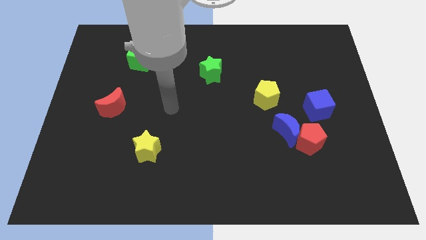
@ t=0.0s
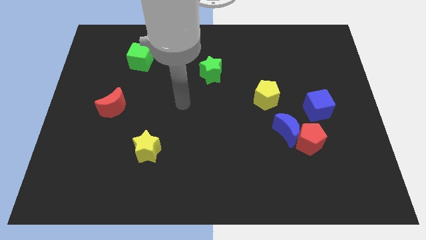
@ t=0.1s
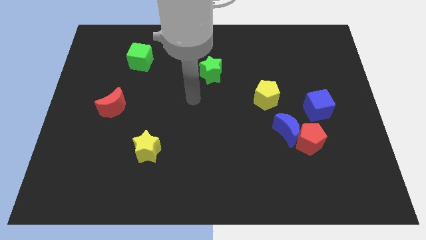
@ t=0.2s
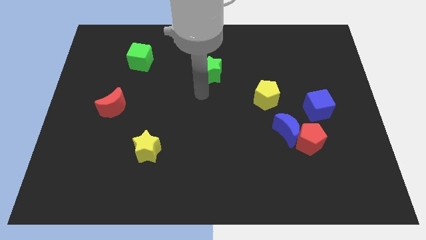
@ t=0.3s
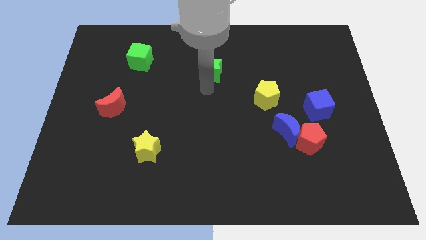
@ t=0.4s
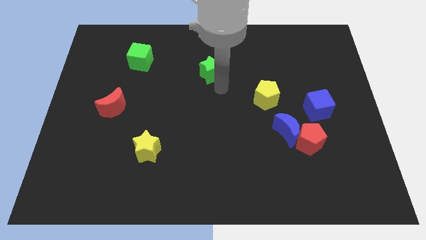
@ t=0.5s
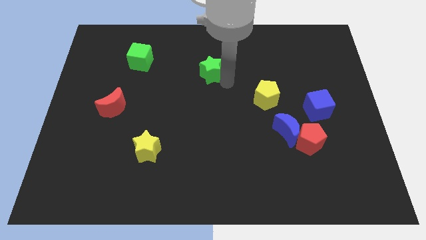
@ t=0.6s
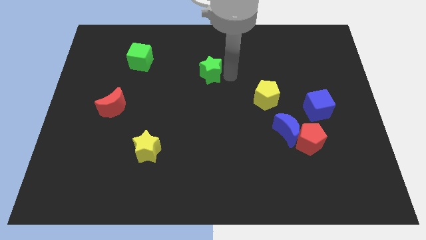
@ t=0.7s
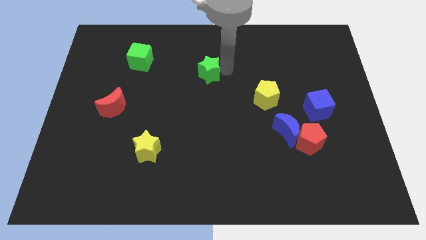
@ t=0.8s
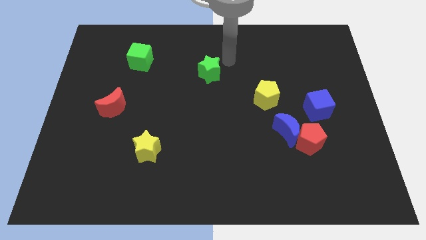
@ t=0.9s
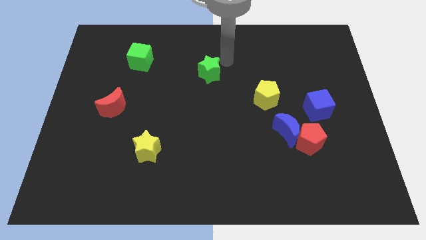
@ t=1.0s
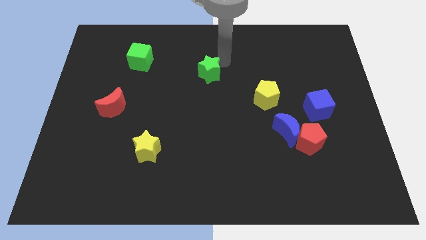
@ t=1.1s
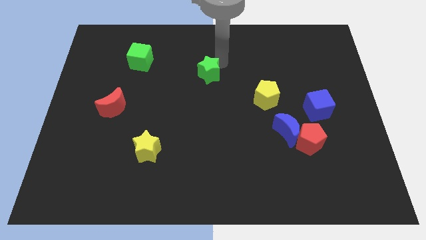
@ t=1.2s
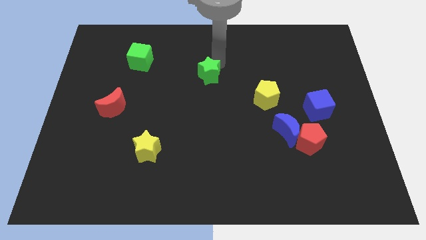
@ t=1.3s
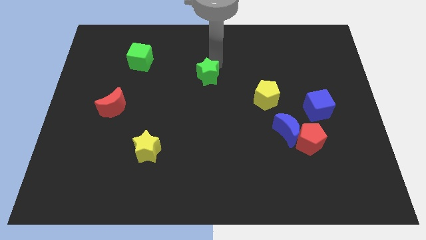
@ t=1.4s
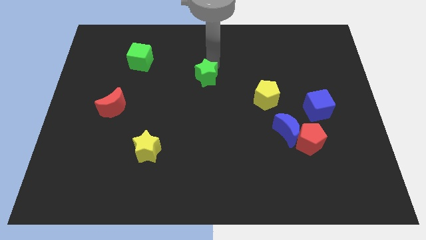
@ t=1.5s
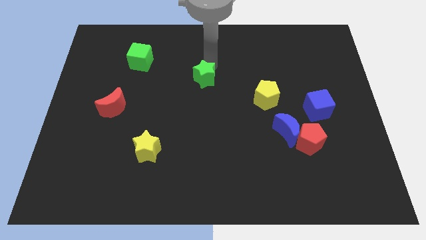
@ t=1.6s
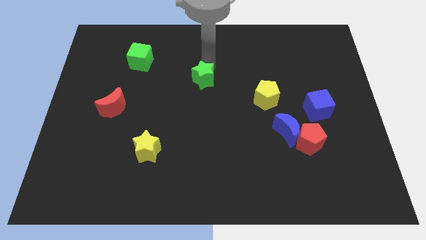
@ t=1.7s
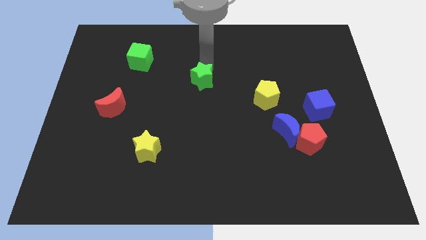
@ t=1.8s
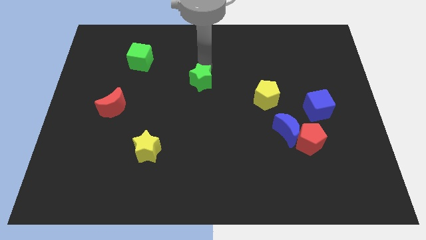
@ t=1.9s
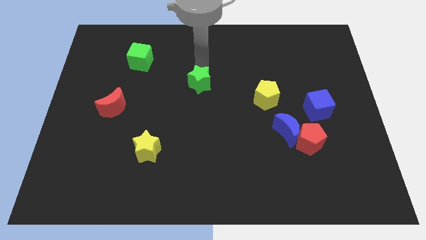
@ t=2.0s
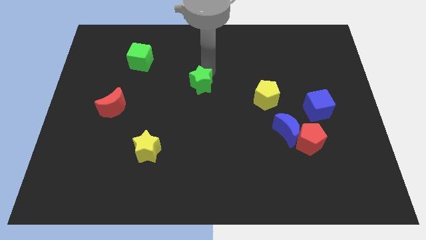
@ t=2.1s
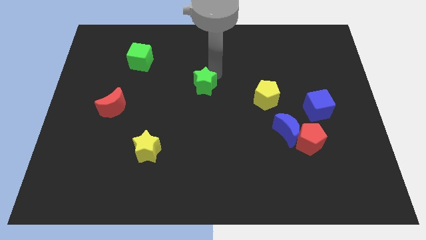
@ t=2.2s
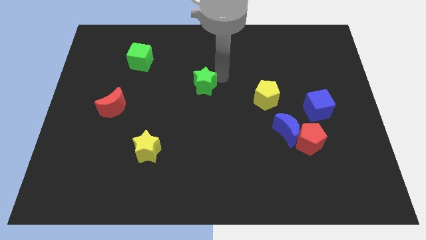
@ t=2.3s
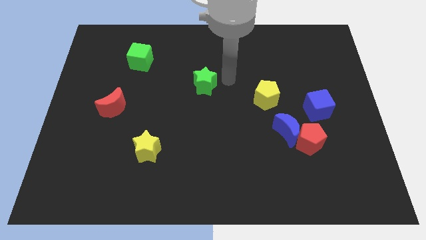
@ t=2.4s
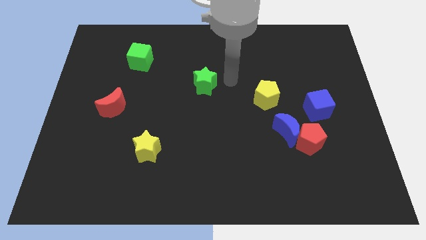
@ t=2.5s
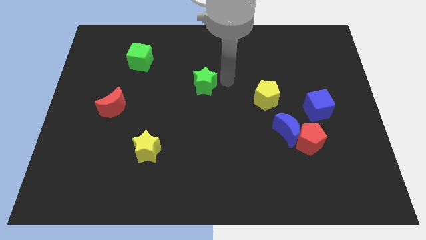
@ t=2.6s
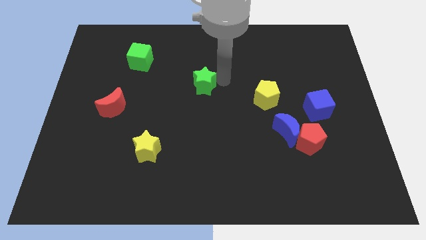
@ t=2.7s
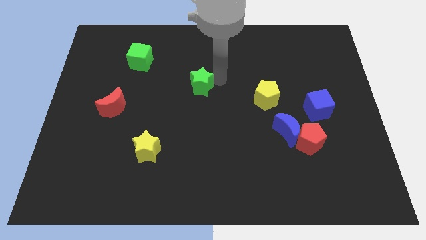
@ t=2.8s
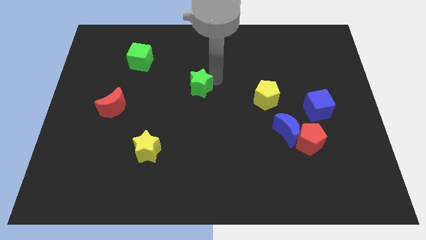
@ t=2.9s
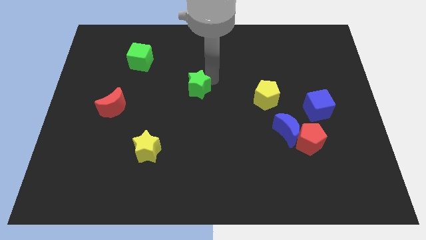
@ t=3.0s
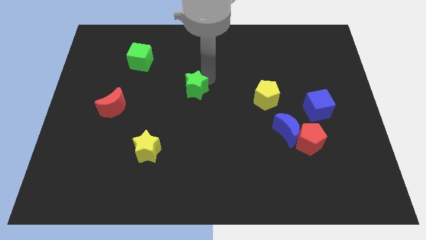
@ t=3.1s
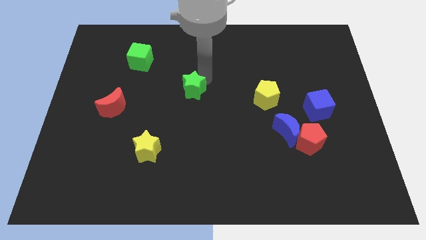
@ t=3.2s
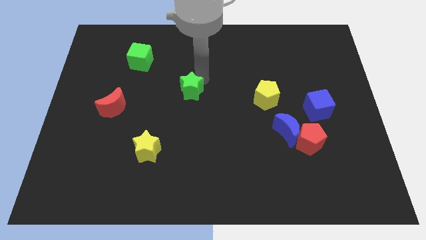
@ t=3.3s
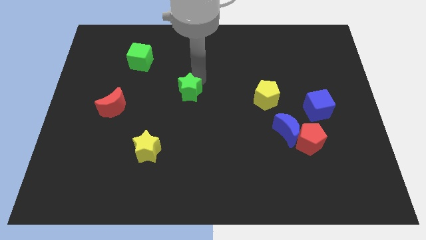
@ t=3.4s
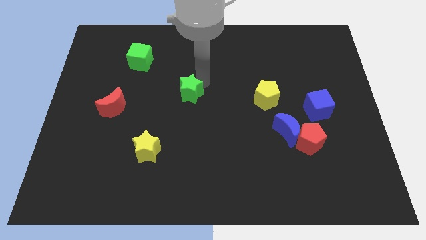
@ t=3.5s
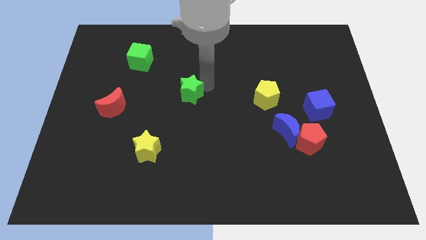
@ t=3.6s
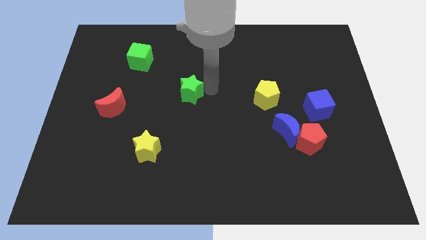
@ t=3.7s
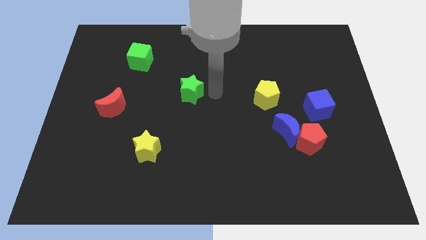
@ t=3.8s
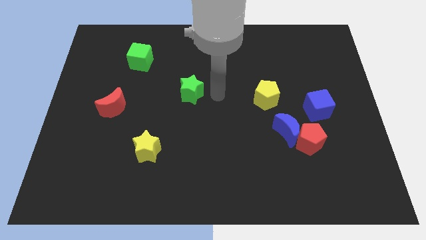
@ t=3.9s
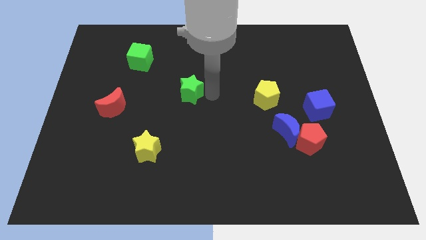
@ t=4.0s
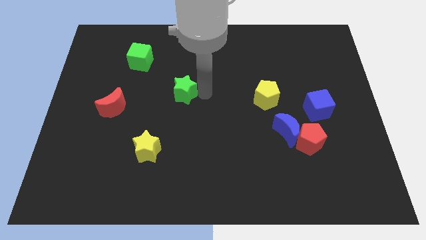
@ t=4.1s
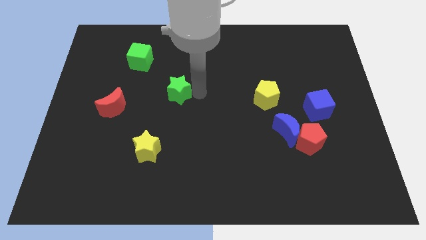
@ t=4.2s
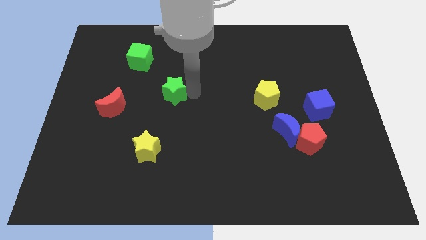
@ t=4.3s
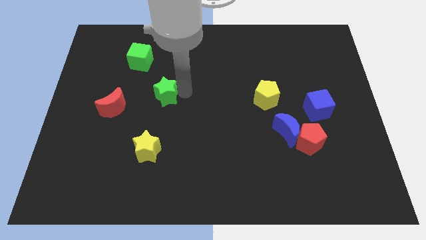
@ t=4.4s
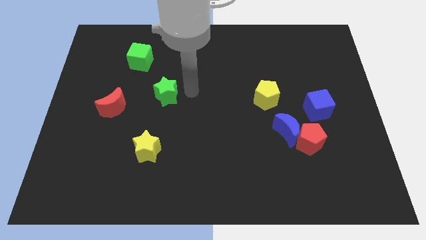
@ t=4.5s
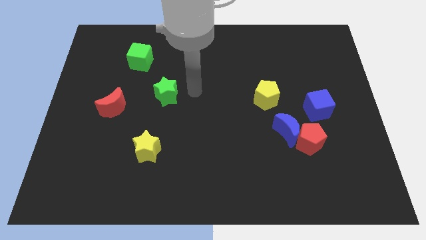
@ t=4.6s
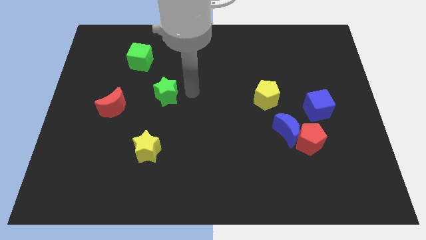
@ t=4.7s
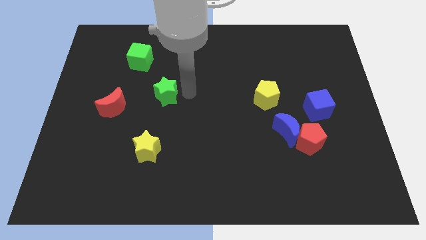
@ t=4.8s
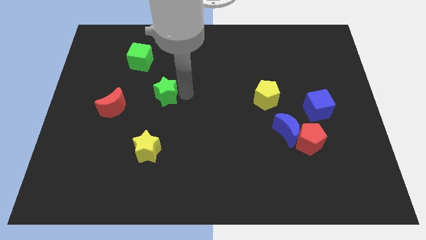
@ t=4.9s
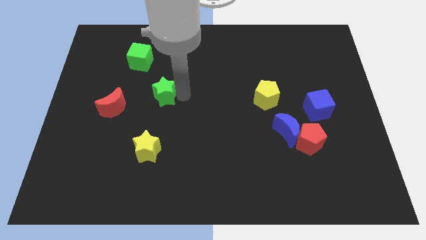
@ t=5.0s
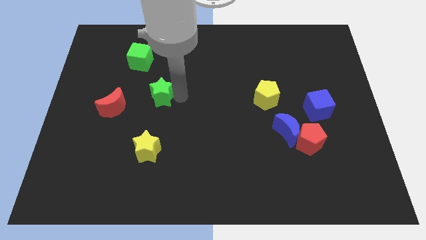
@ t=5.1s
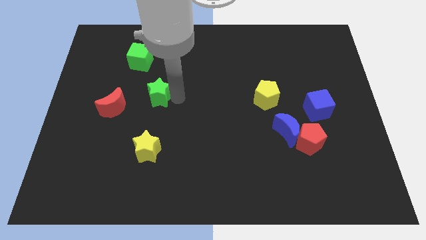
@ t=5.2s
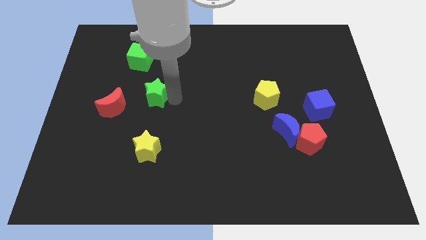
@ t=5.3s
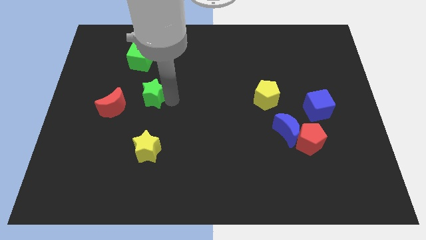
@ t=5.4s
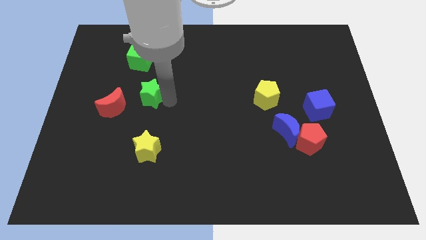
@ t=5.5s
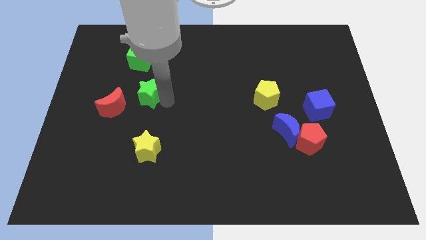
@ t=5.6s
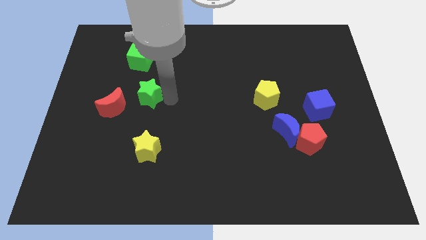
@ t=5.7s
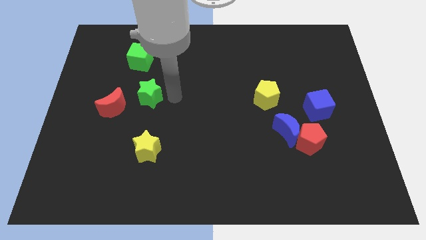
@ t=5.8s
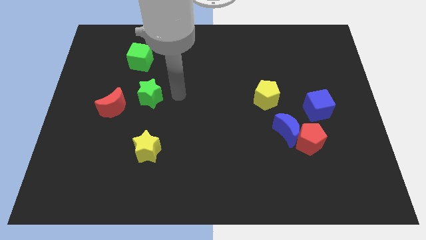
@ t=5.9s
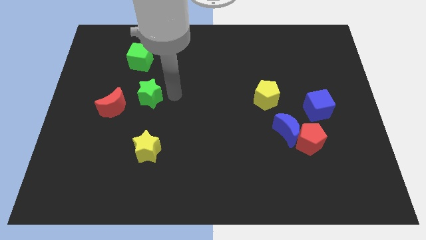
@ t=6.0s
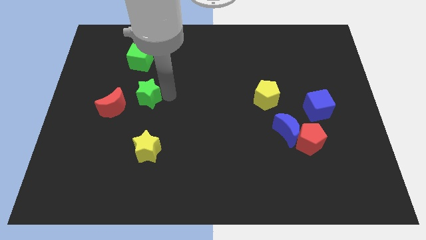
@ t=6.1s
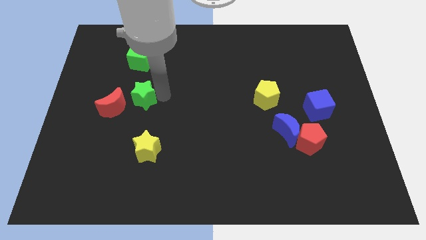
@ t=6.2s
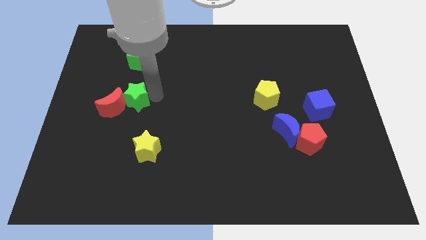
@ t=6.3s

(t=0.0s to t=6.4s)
slide the green star towards the red moon

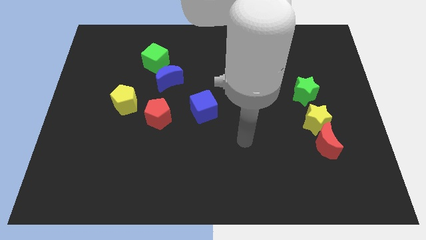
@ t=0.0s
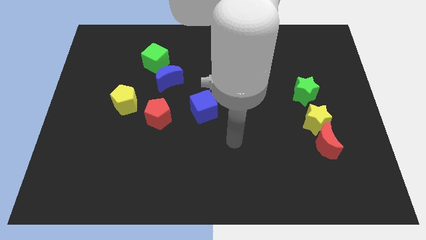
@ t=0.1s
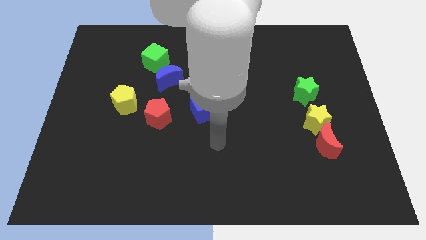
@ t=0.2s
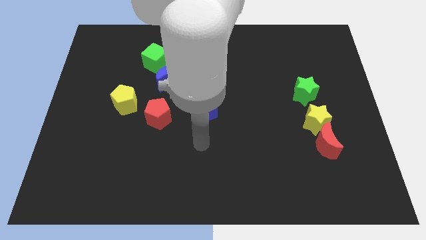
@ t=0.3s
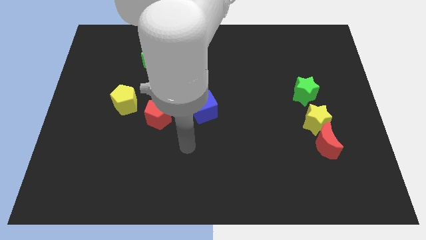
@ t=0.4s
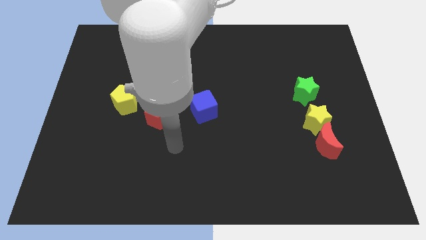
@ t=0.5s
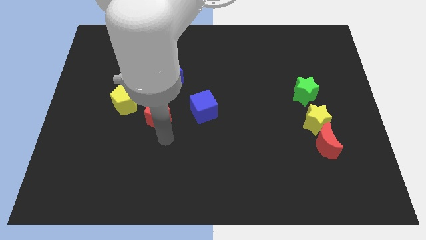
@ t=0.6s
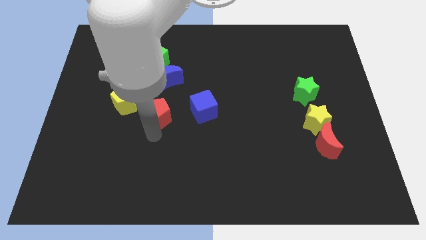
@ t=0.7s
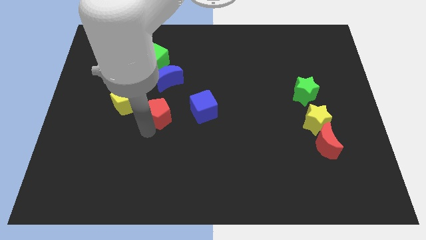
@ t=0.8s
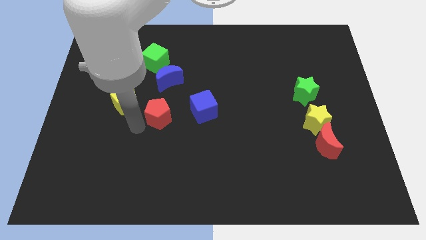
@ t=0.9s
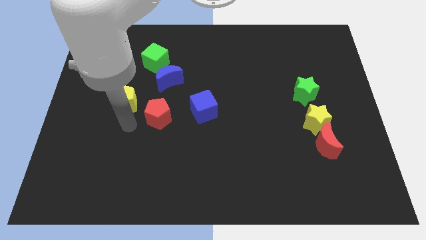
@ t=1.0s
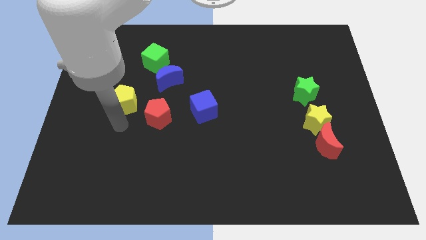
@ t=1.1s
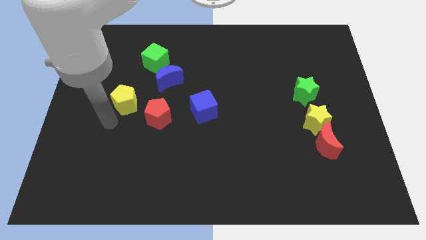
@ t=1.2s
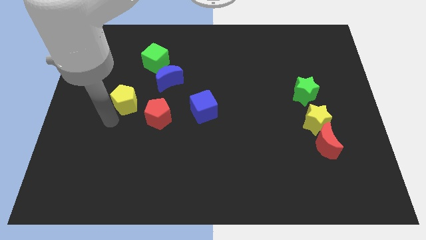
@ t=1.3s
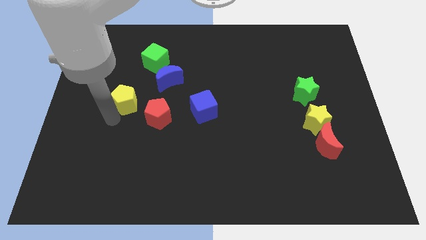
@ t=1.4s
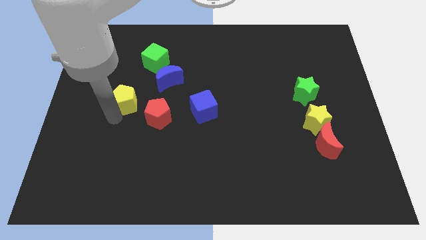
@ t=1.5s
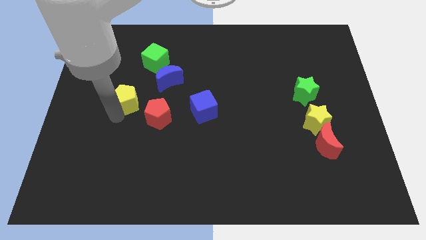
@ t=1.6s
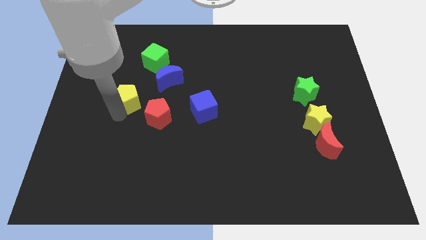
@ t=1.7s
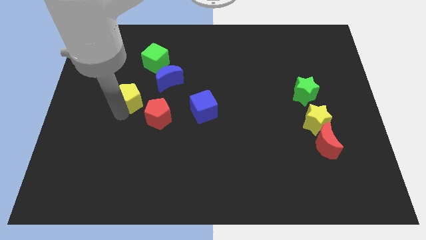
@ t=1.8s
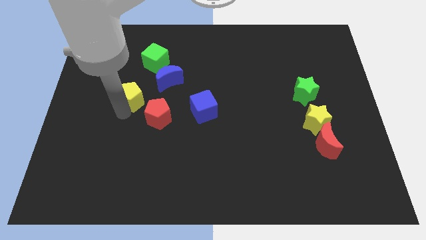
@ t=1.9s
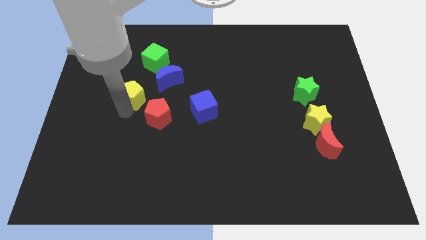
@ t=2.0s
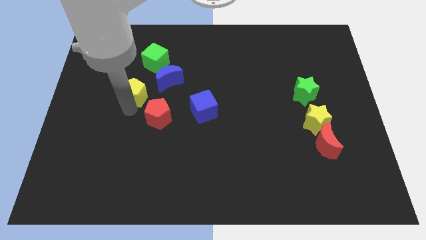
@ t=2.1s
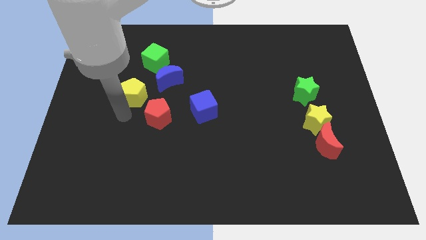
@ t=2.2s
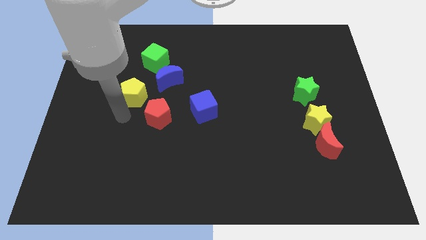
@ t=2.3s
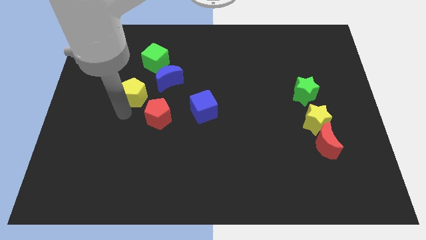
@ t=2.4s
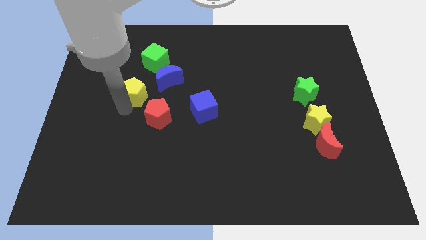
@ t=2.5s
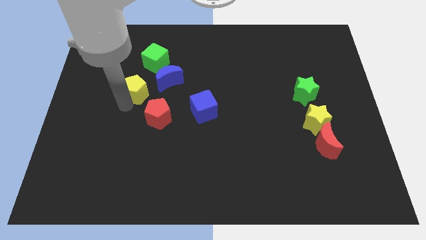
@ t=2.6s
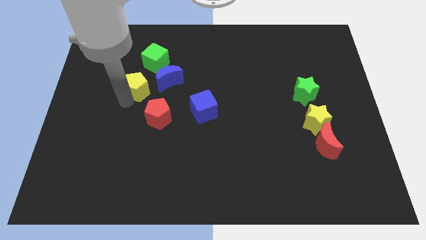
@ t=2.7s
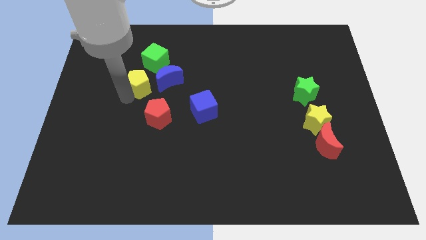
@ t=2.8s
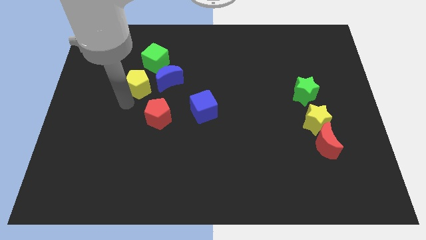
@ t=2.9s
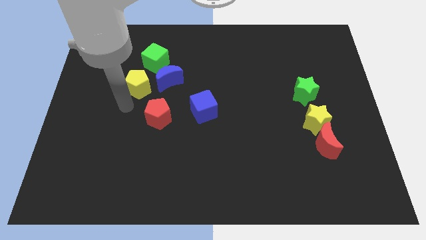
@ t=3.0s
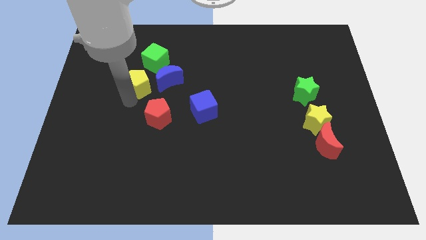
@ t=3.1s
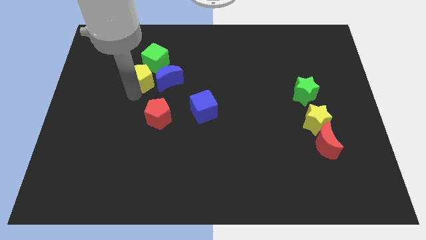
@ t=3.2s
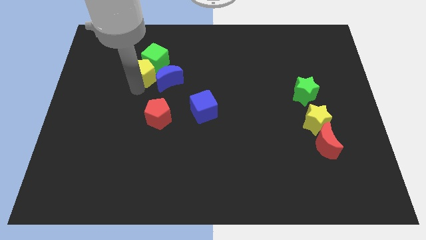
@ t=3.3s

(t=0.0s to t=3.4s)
move the yellow pentagon towards the green cube
